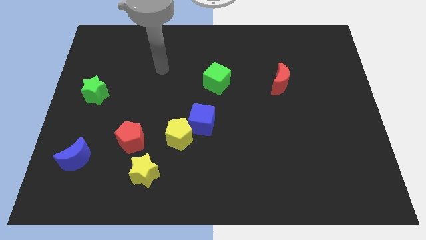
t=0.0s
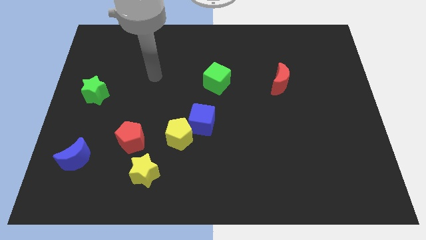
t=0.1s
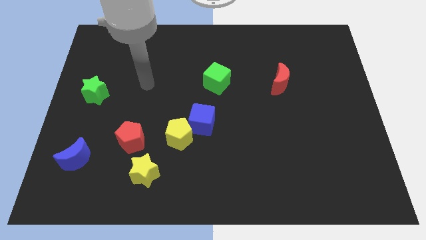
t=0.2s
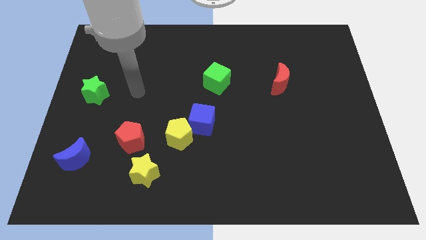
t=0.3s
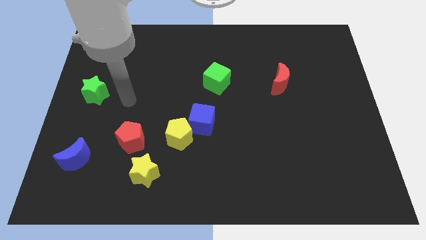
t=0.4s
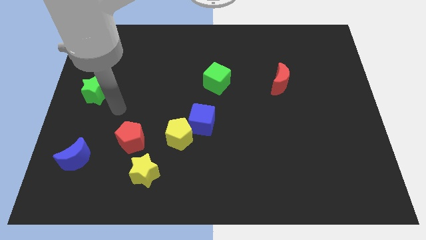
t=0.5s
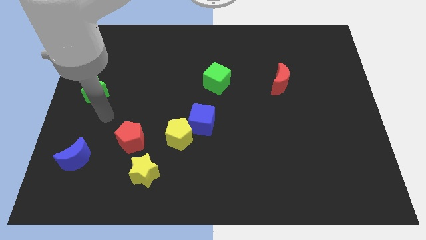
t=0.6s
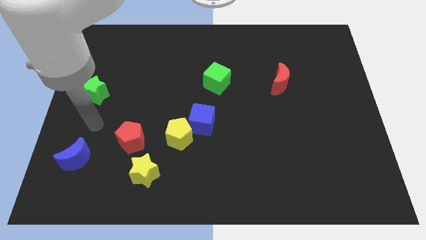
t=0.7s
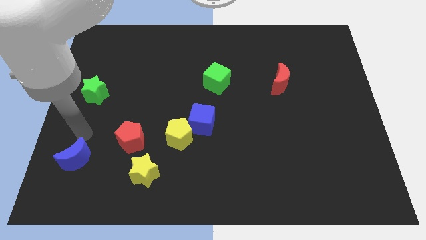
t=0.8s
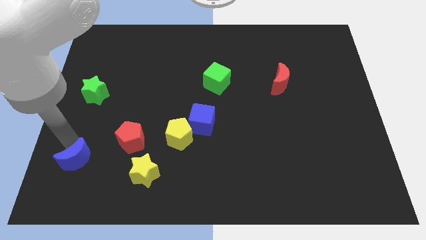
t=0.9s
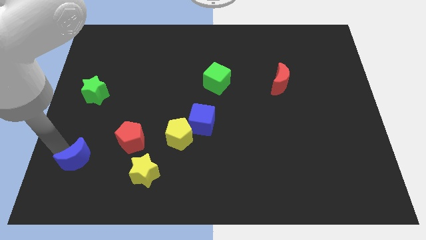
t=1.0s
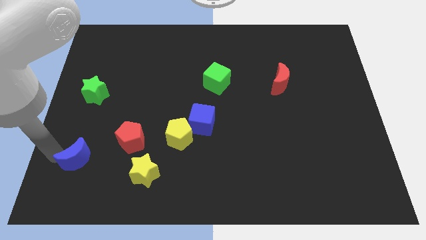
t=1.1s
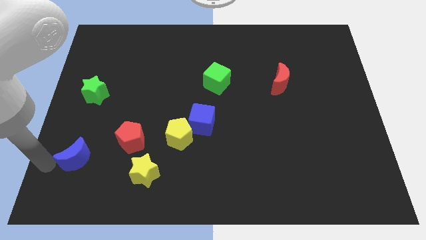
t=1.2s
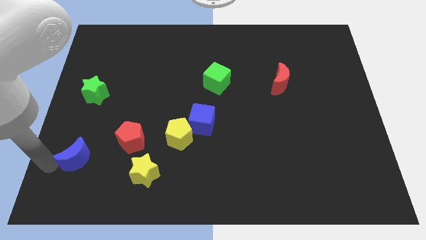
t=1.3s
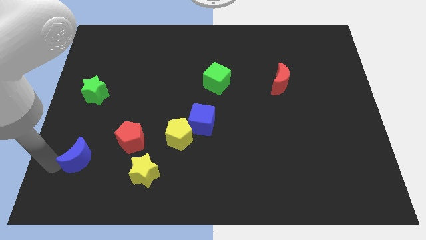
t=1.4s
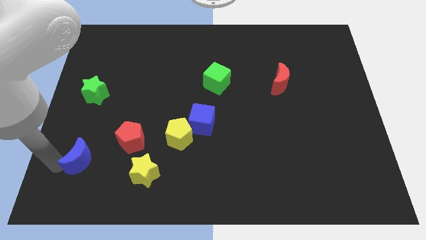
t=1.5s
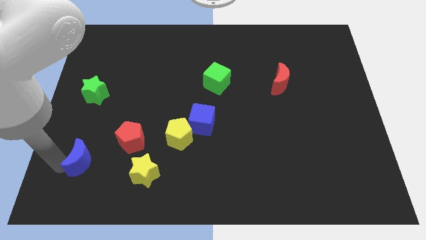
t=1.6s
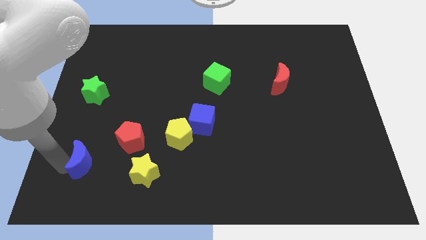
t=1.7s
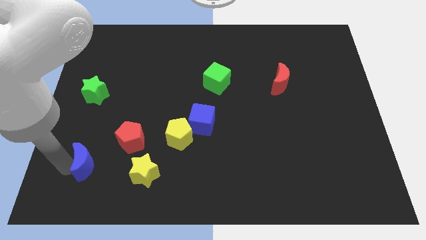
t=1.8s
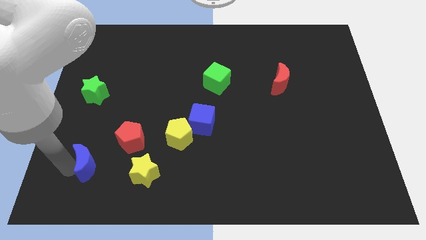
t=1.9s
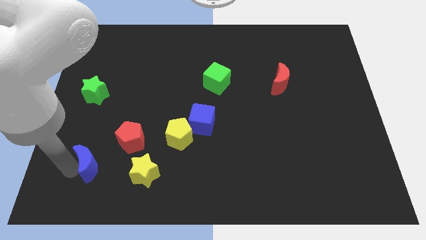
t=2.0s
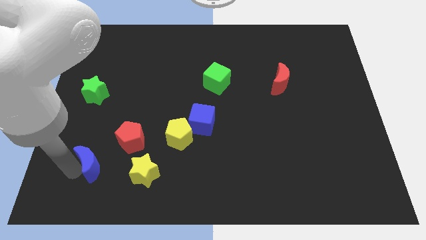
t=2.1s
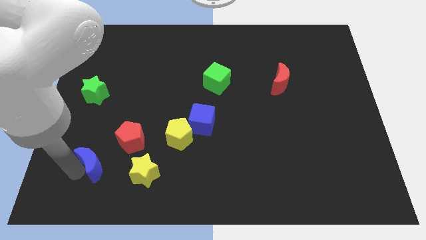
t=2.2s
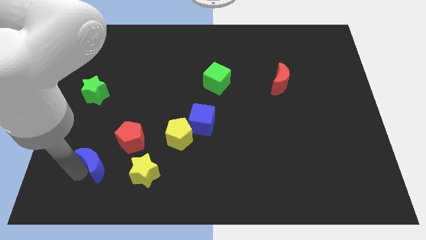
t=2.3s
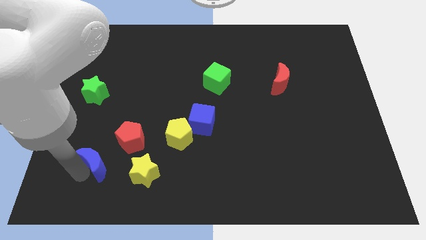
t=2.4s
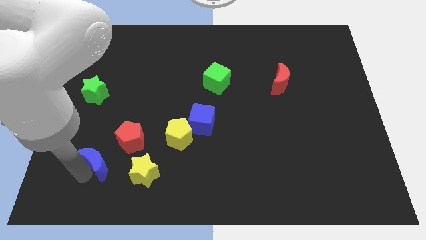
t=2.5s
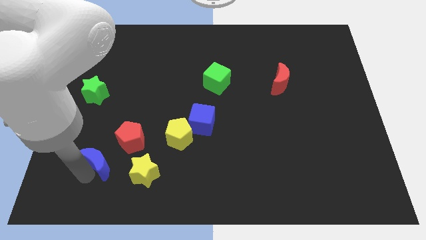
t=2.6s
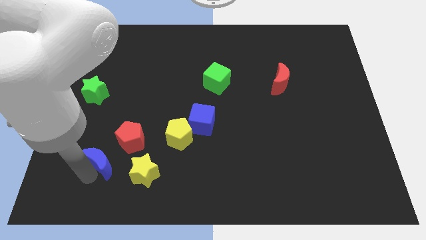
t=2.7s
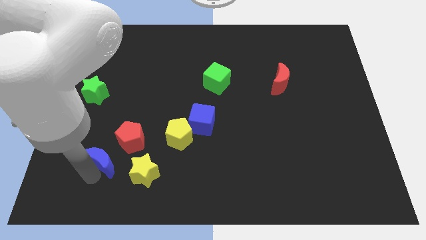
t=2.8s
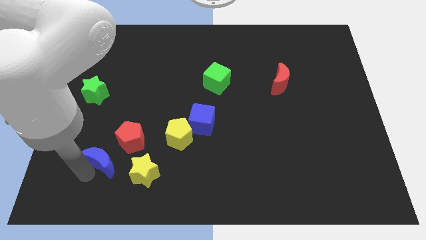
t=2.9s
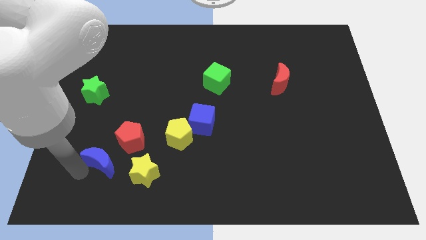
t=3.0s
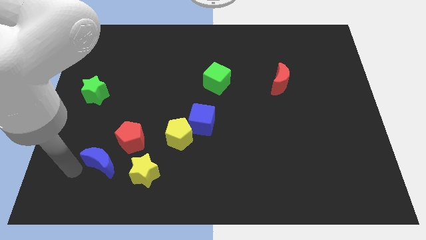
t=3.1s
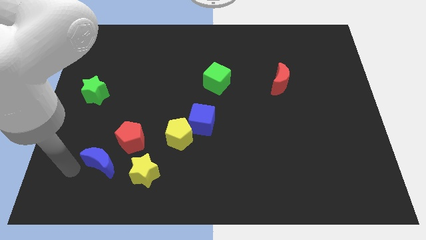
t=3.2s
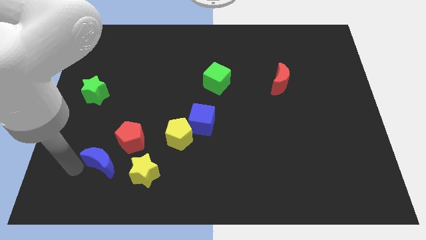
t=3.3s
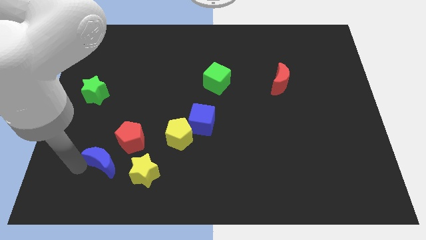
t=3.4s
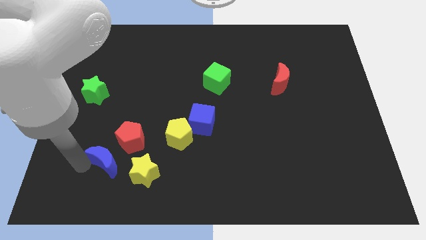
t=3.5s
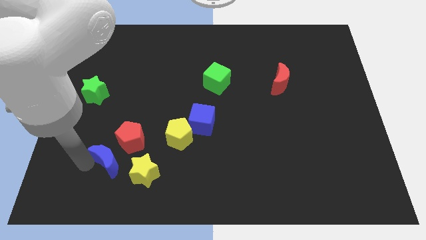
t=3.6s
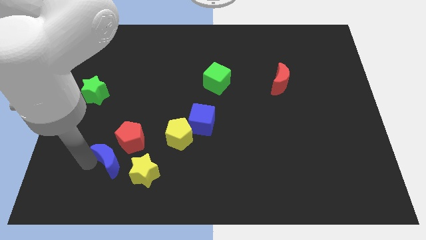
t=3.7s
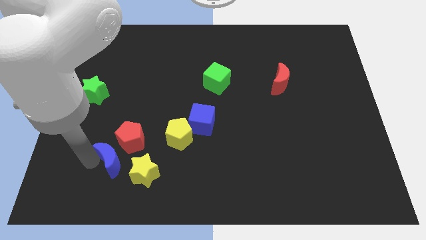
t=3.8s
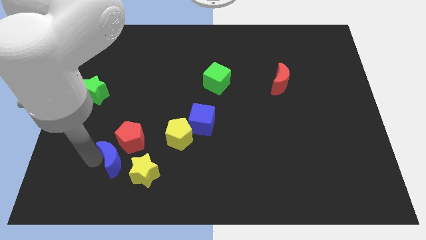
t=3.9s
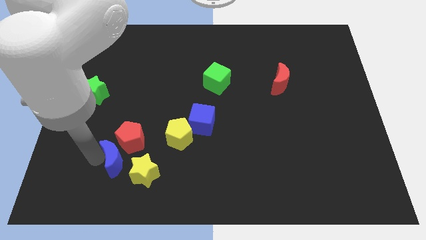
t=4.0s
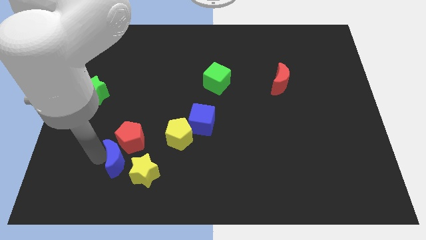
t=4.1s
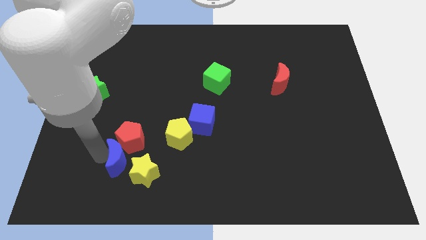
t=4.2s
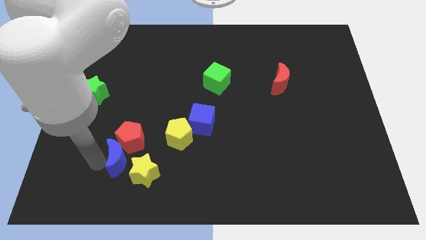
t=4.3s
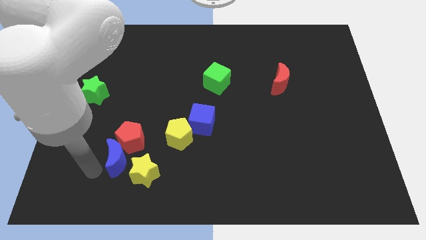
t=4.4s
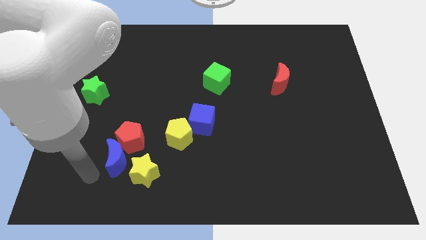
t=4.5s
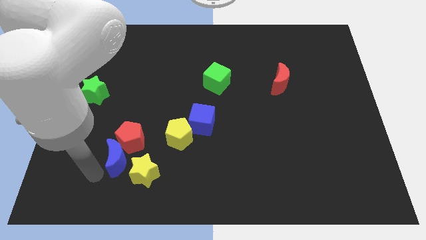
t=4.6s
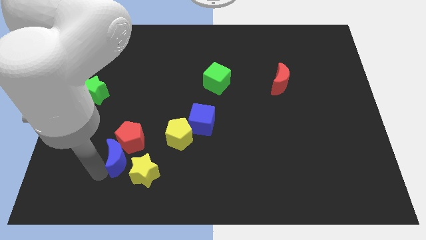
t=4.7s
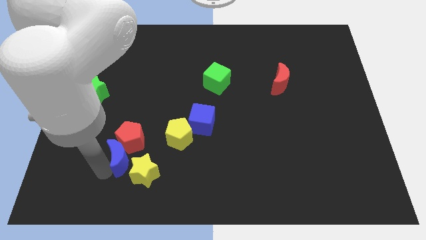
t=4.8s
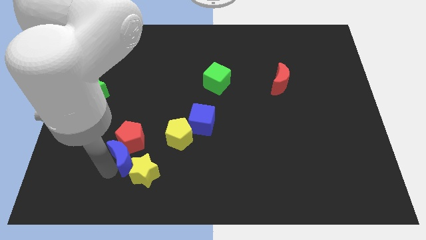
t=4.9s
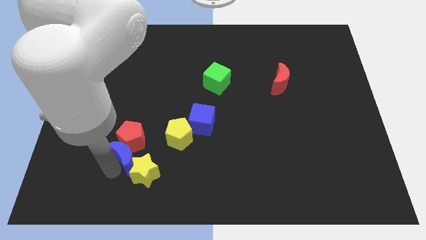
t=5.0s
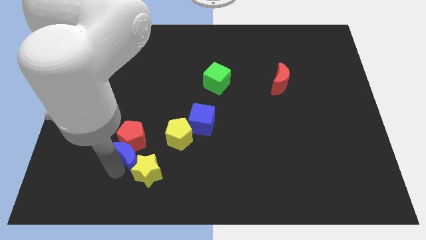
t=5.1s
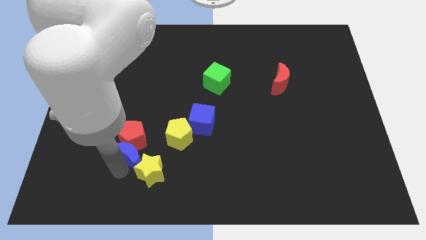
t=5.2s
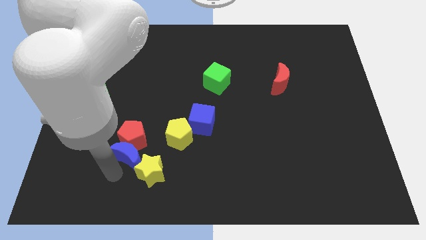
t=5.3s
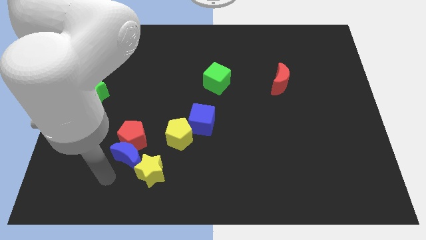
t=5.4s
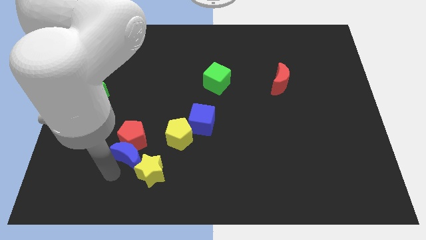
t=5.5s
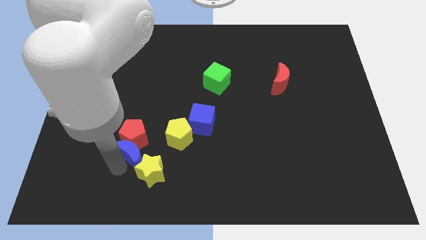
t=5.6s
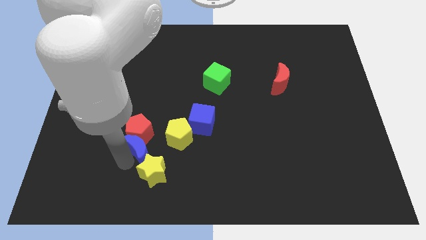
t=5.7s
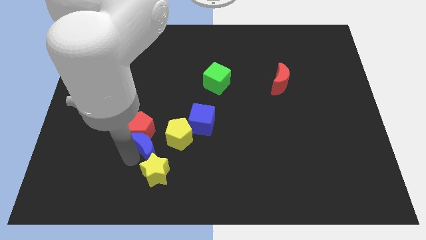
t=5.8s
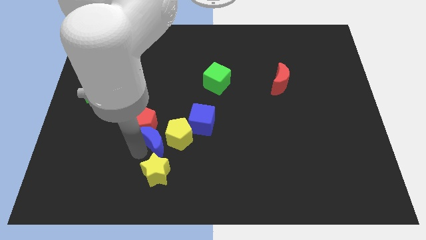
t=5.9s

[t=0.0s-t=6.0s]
move the blue moon towards the yellow pentagon

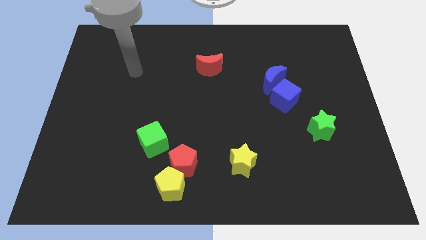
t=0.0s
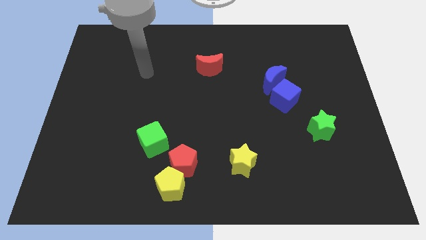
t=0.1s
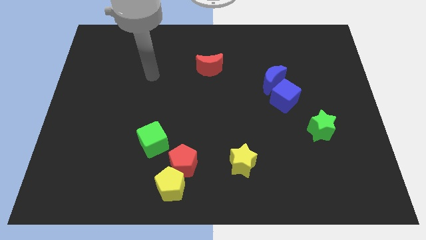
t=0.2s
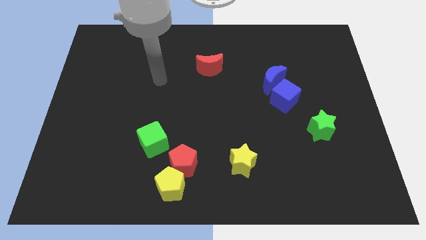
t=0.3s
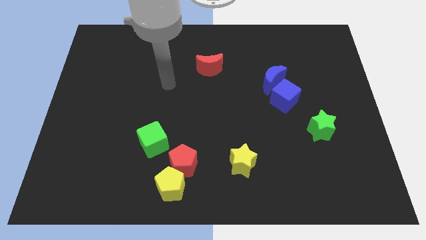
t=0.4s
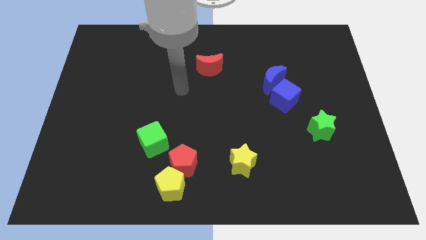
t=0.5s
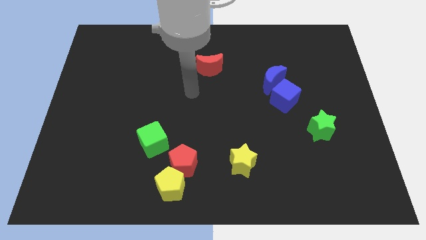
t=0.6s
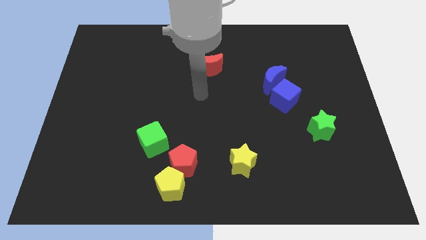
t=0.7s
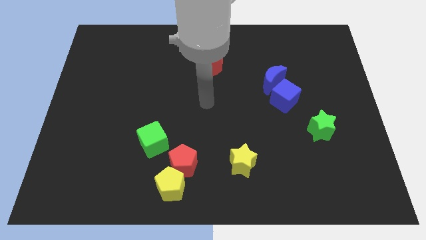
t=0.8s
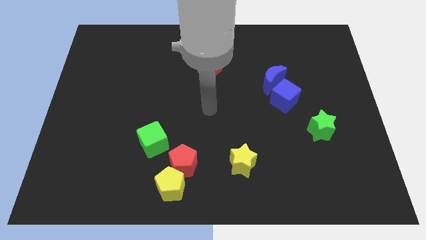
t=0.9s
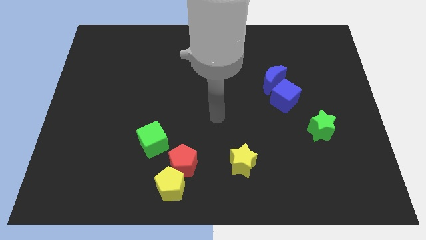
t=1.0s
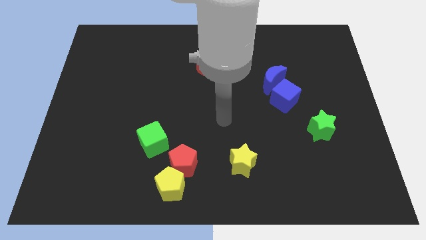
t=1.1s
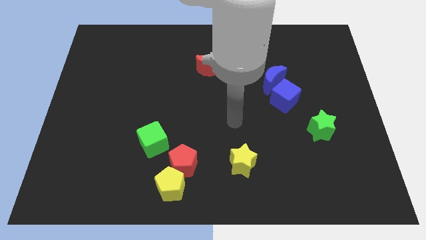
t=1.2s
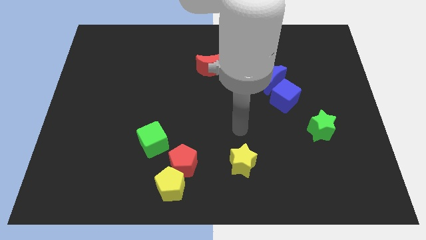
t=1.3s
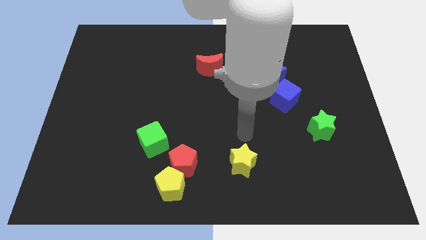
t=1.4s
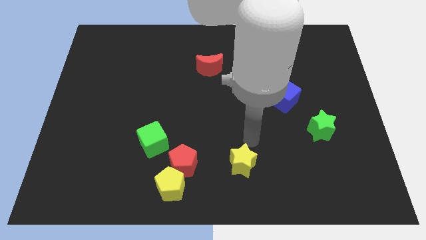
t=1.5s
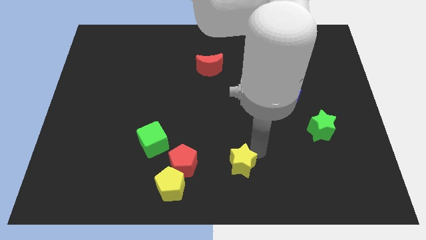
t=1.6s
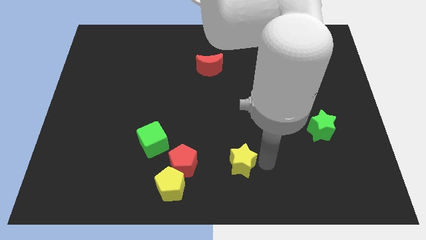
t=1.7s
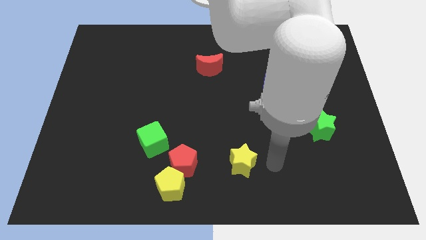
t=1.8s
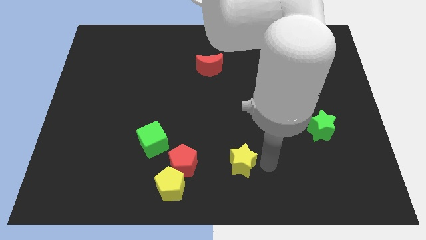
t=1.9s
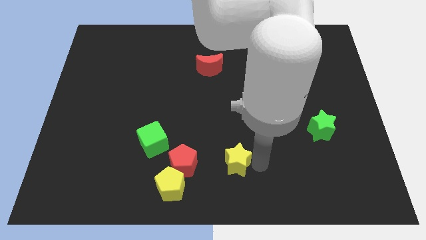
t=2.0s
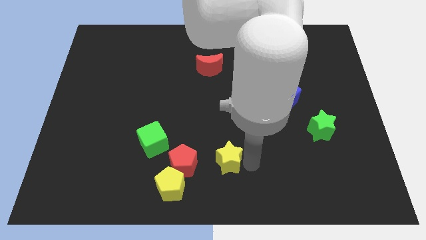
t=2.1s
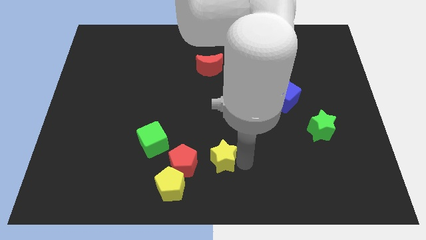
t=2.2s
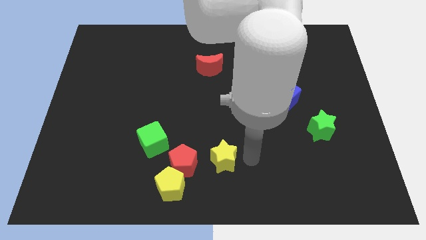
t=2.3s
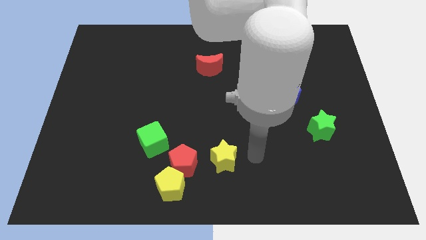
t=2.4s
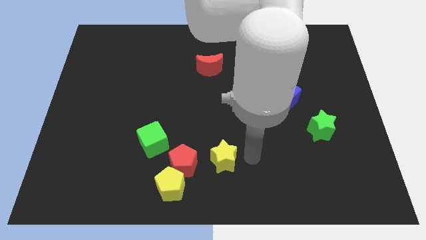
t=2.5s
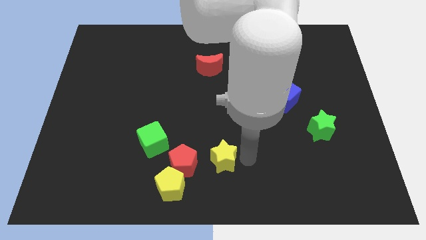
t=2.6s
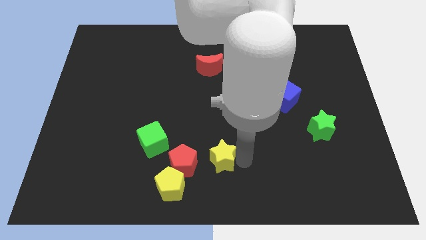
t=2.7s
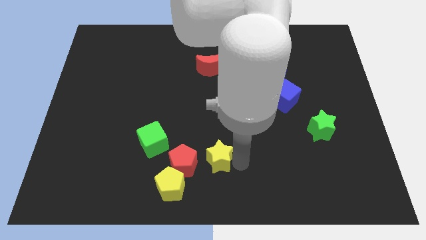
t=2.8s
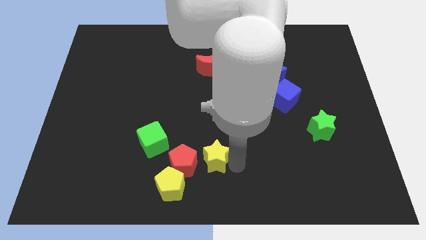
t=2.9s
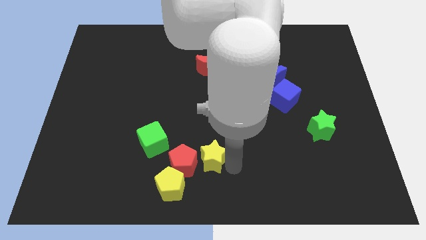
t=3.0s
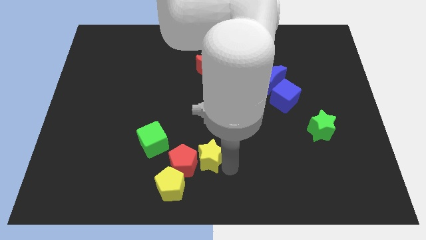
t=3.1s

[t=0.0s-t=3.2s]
push the yellow star next to the red pentagon
